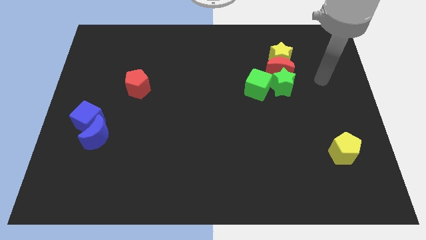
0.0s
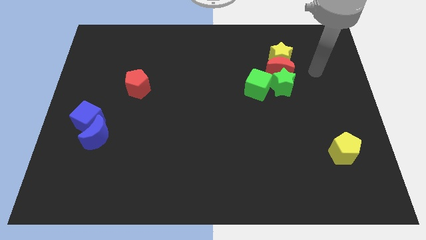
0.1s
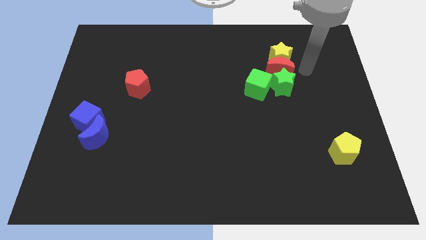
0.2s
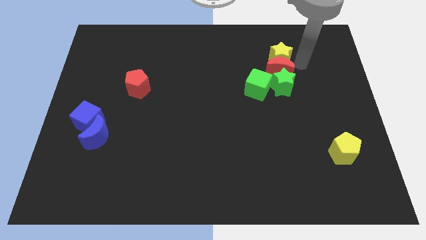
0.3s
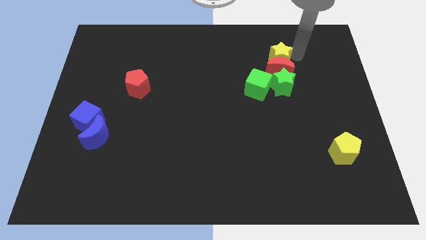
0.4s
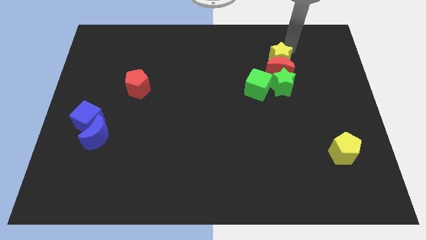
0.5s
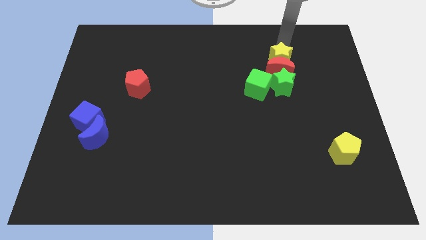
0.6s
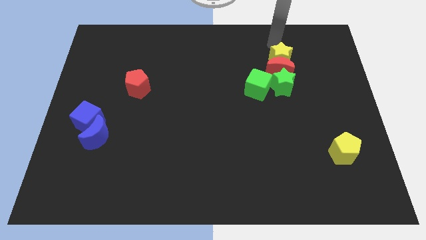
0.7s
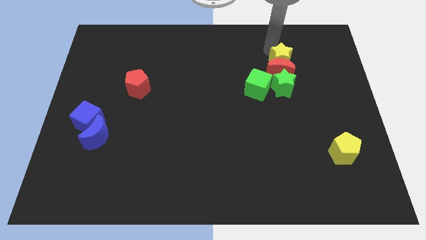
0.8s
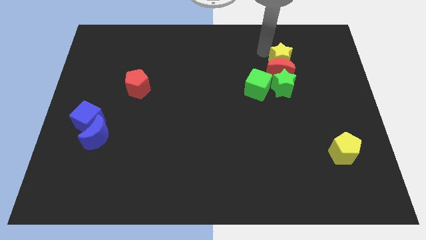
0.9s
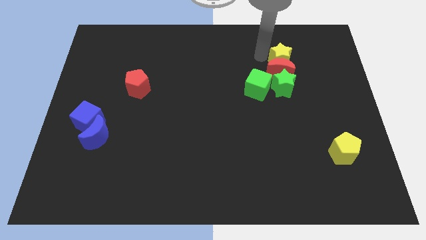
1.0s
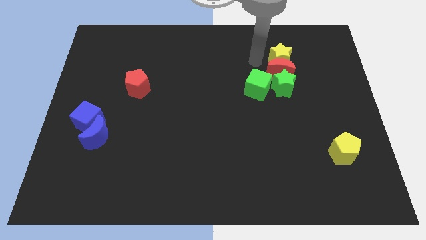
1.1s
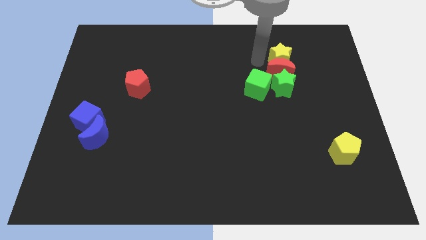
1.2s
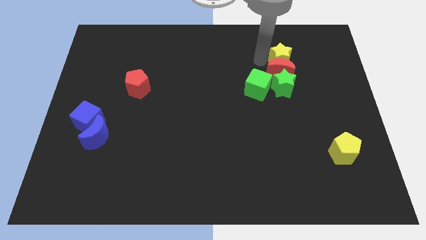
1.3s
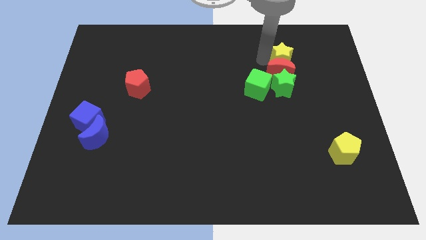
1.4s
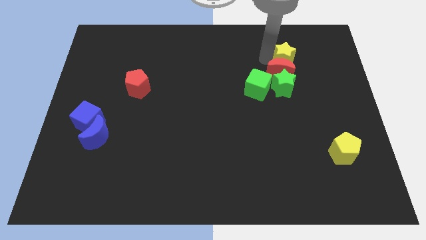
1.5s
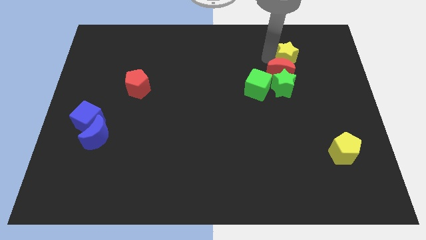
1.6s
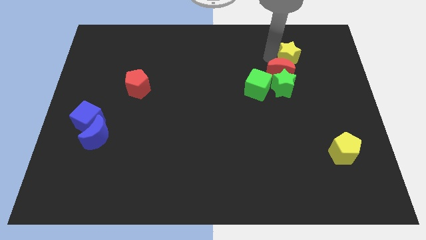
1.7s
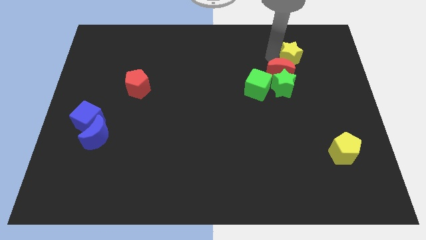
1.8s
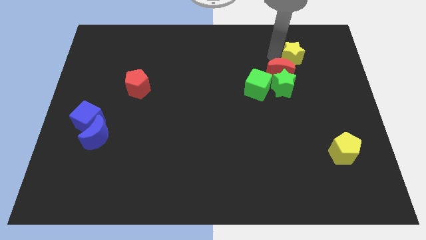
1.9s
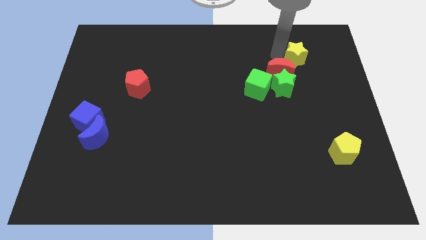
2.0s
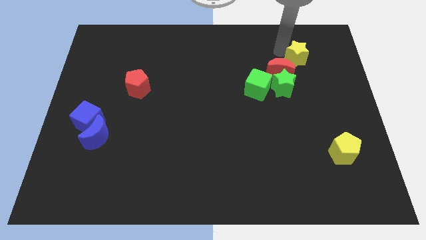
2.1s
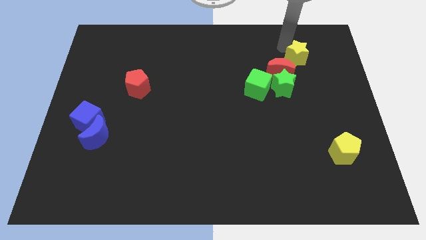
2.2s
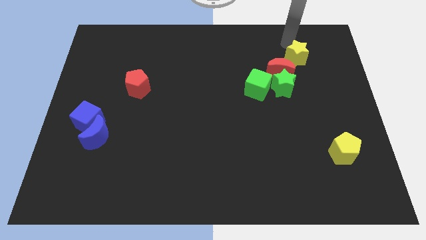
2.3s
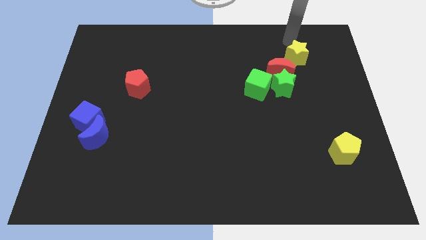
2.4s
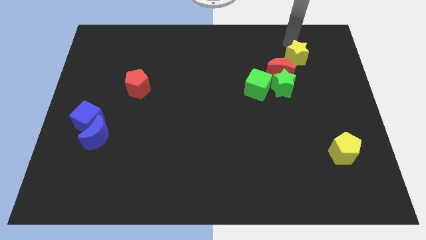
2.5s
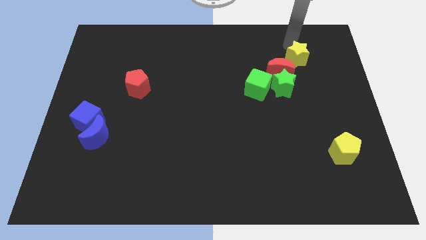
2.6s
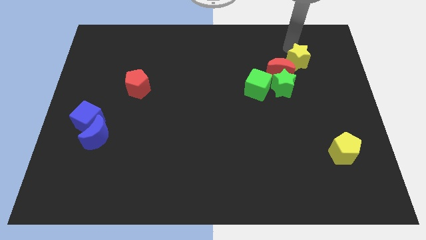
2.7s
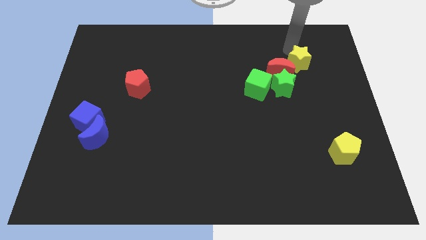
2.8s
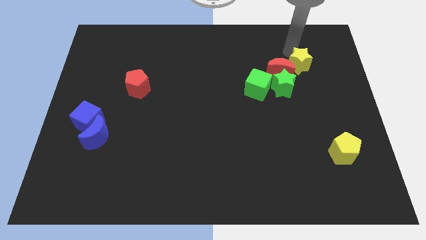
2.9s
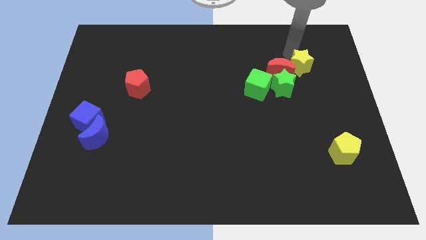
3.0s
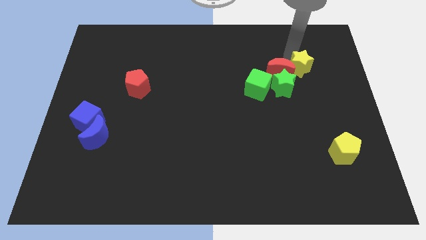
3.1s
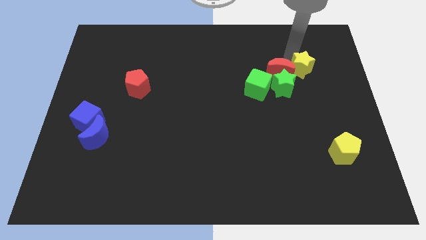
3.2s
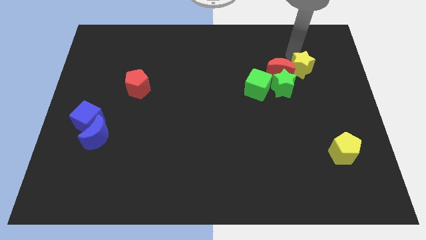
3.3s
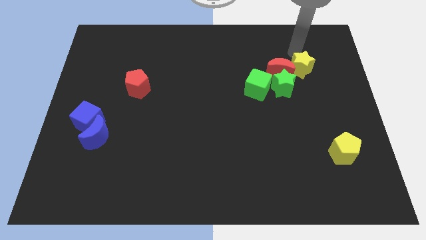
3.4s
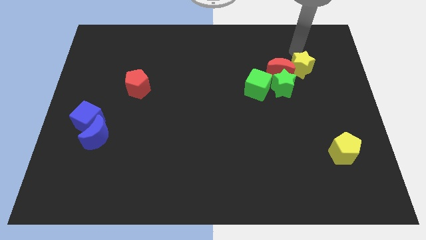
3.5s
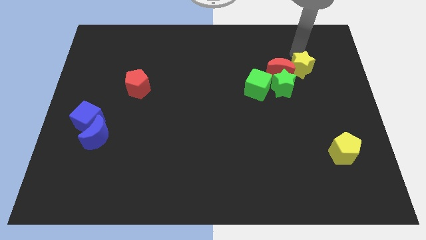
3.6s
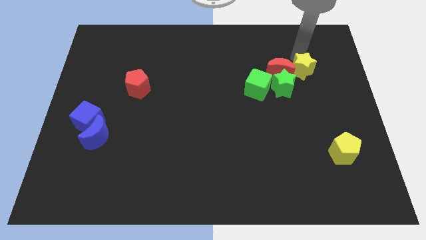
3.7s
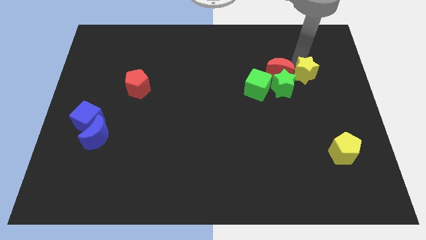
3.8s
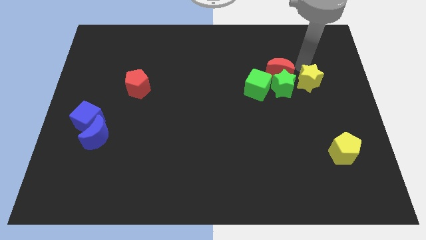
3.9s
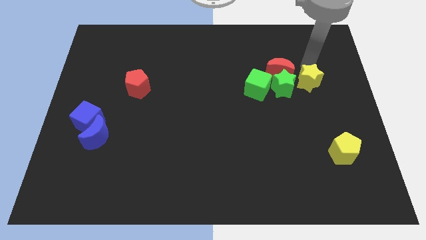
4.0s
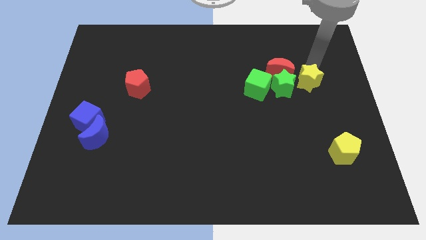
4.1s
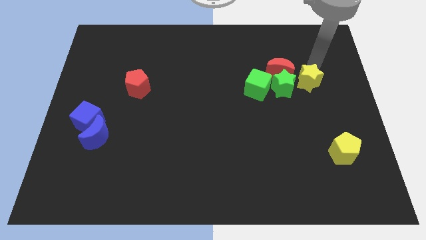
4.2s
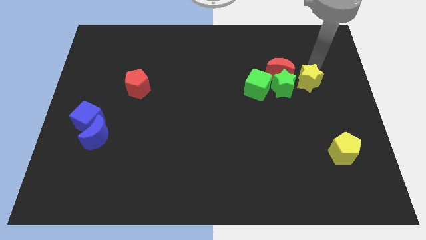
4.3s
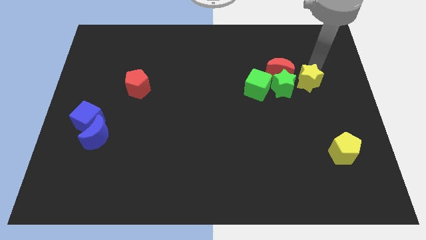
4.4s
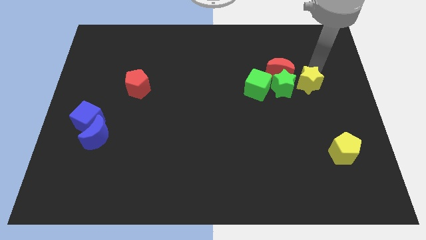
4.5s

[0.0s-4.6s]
slightly push the yellow star down

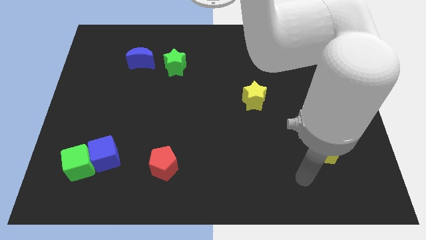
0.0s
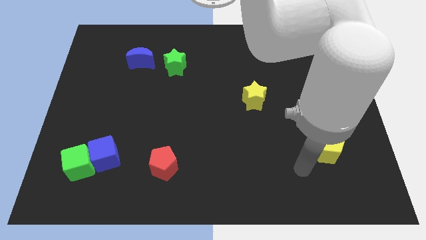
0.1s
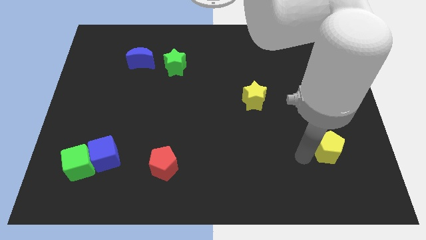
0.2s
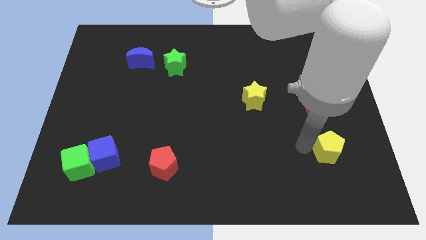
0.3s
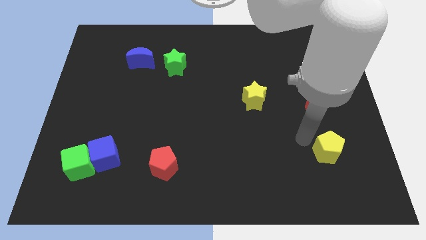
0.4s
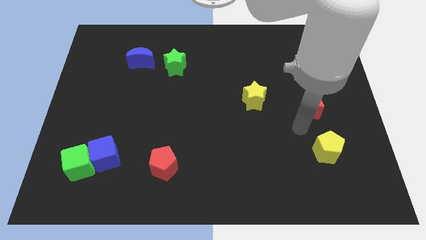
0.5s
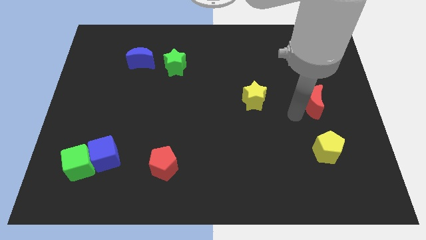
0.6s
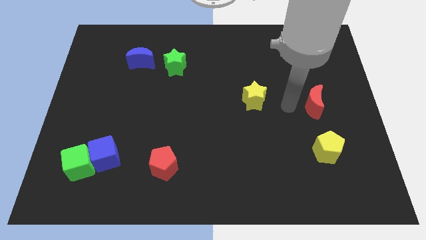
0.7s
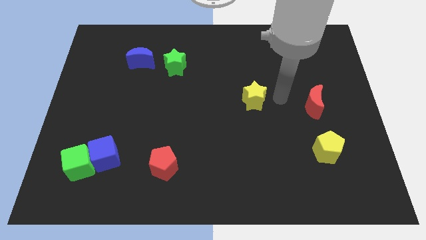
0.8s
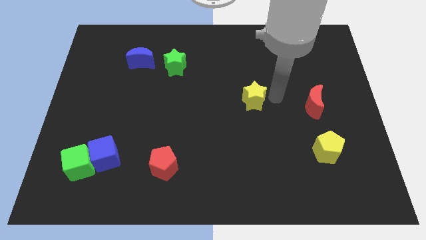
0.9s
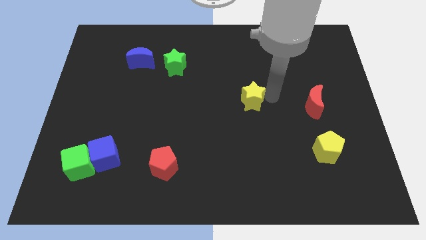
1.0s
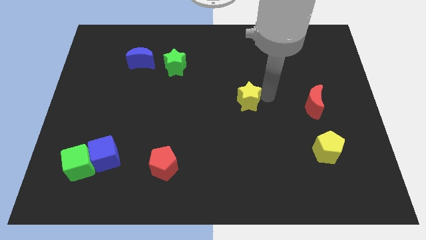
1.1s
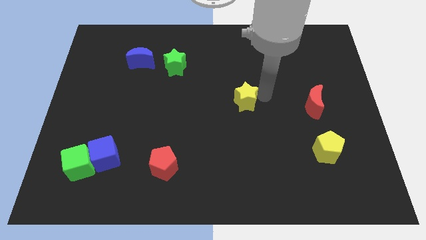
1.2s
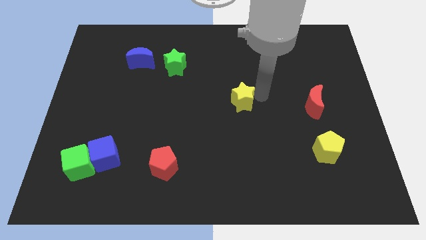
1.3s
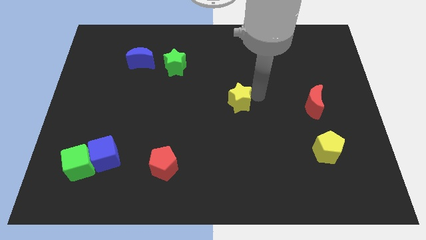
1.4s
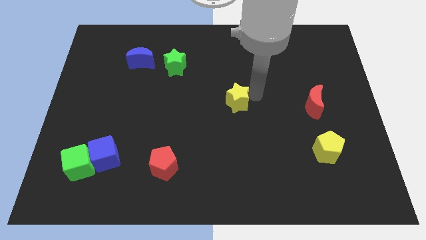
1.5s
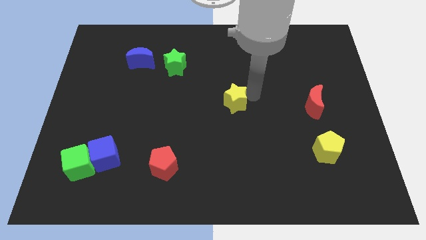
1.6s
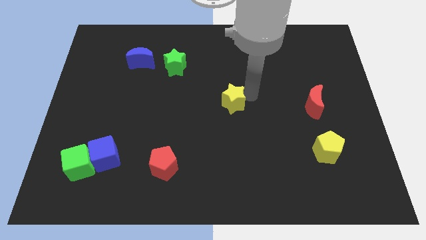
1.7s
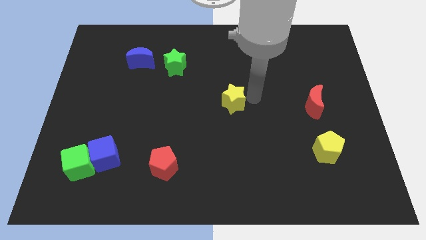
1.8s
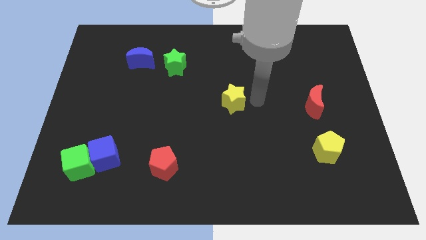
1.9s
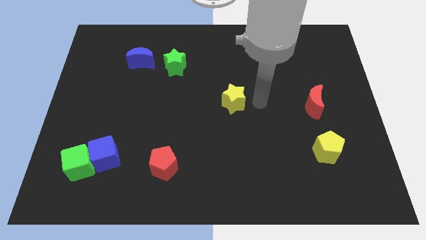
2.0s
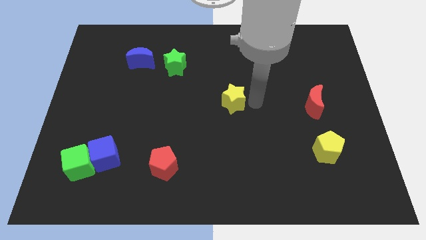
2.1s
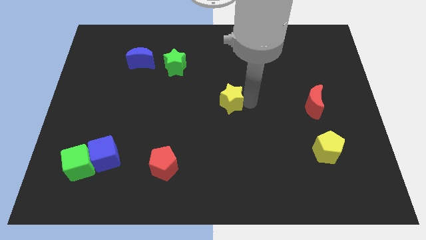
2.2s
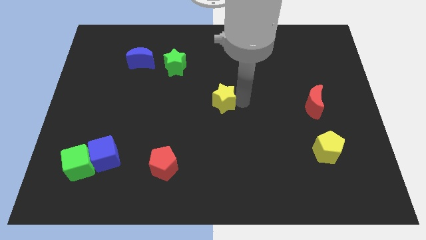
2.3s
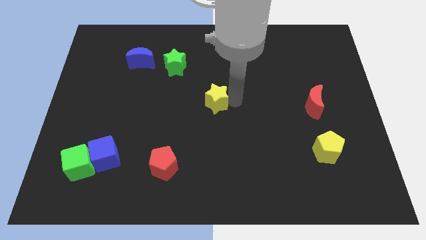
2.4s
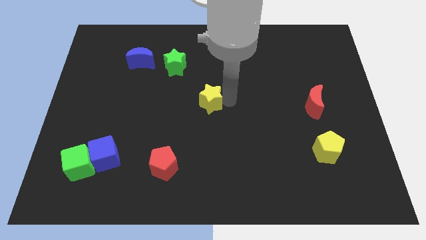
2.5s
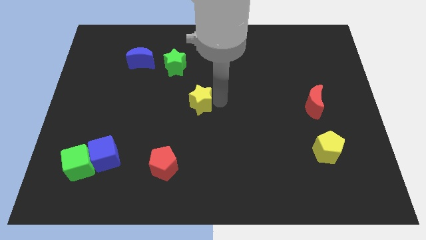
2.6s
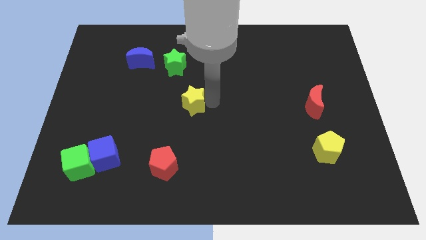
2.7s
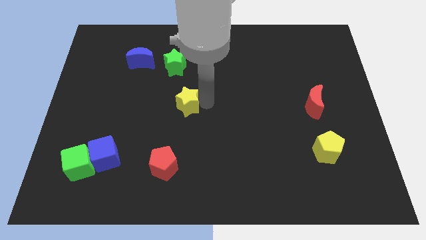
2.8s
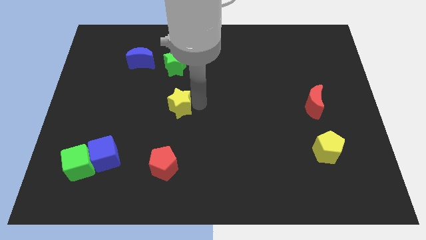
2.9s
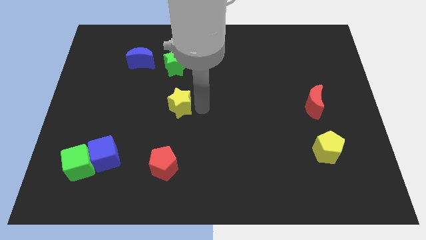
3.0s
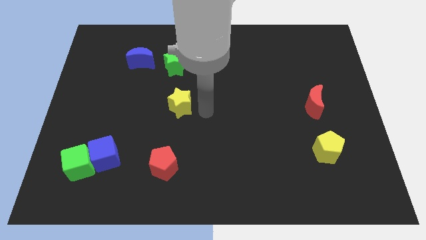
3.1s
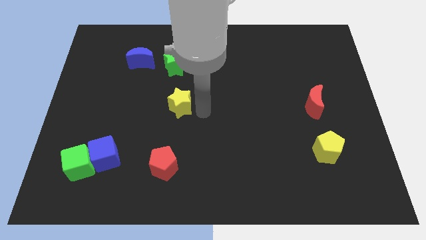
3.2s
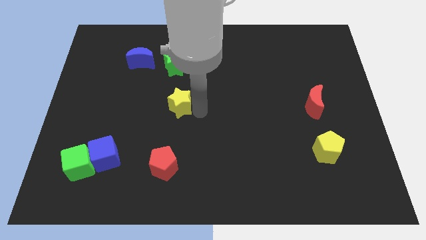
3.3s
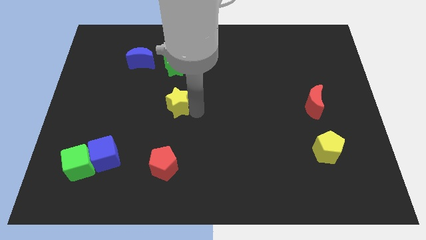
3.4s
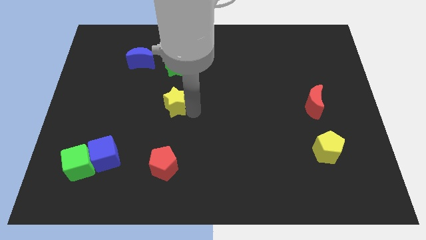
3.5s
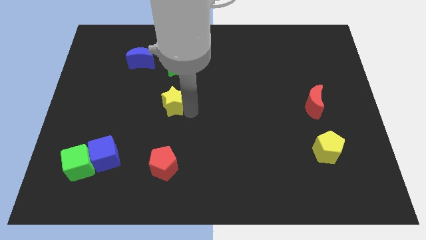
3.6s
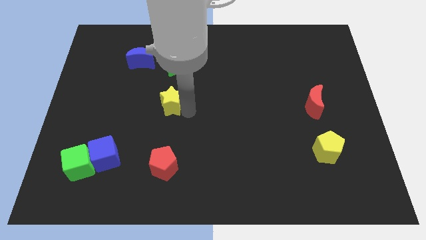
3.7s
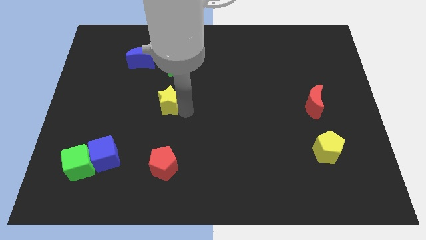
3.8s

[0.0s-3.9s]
slide the yellow star left
